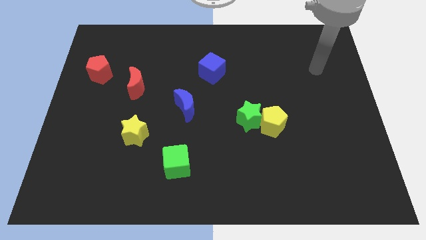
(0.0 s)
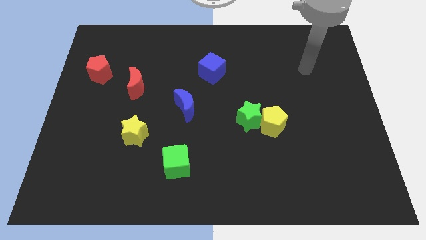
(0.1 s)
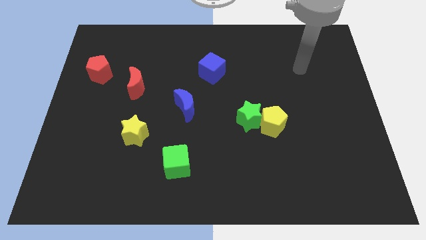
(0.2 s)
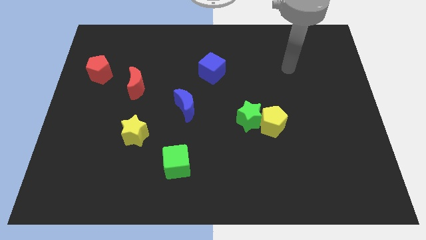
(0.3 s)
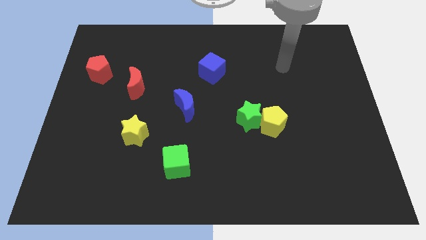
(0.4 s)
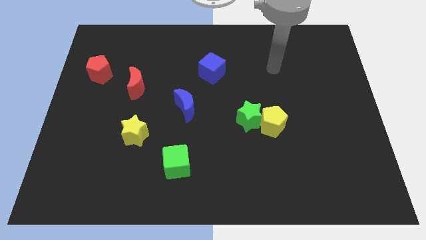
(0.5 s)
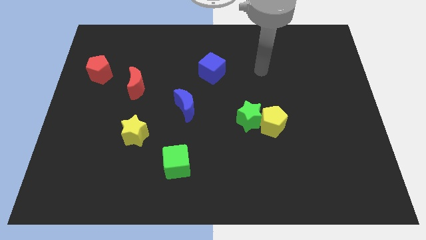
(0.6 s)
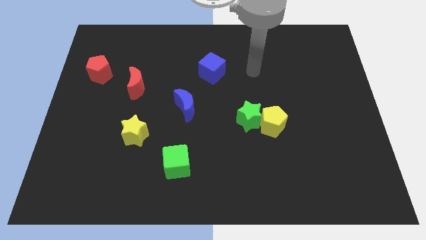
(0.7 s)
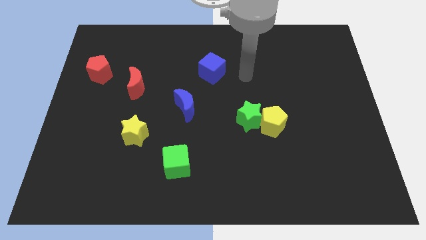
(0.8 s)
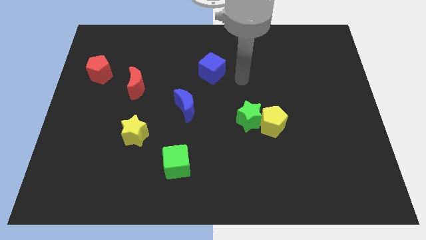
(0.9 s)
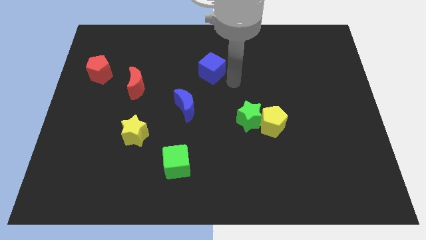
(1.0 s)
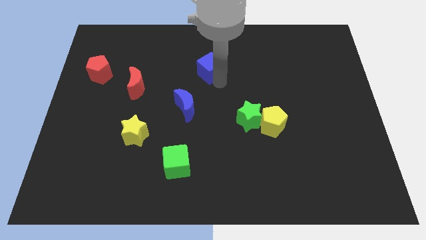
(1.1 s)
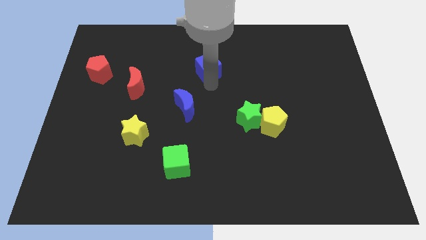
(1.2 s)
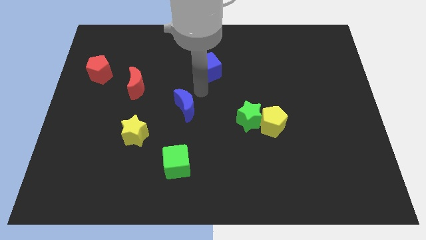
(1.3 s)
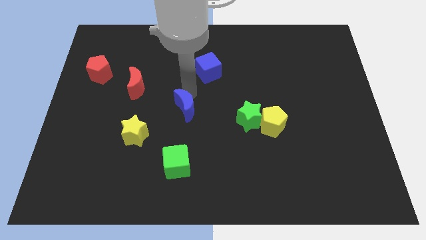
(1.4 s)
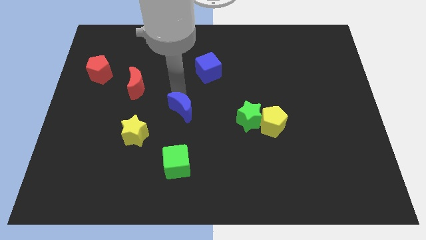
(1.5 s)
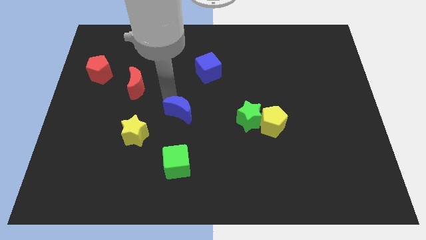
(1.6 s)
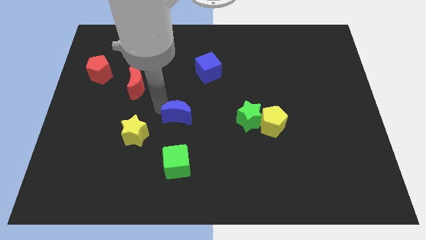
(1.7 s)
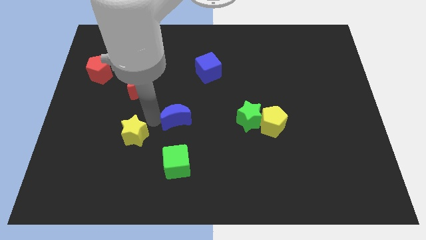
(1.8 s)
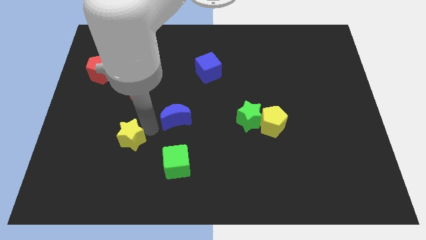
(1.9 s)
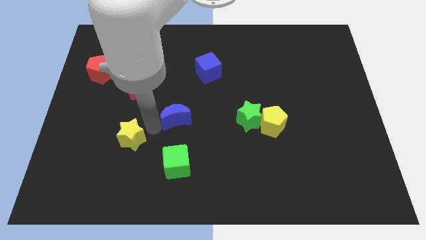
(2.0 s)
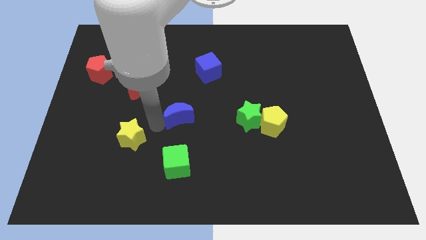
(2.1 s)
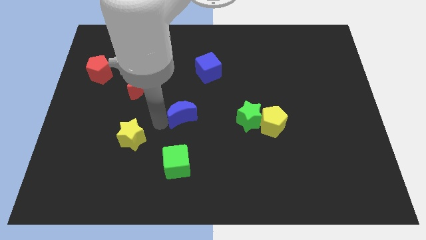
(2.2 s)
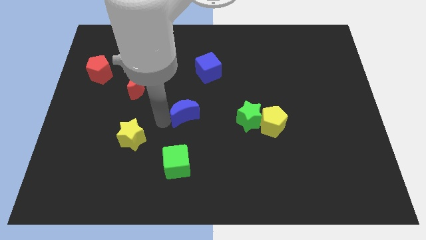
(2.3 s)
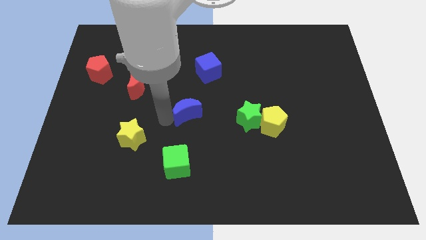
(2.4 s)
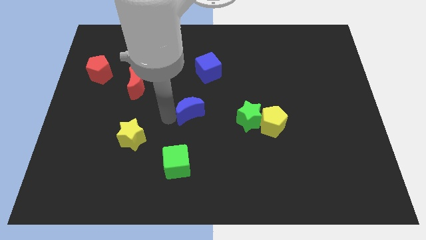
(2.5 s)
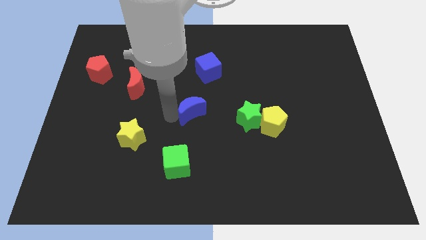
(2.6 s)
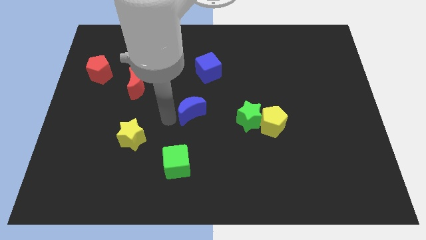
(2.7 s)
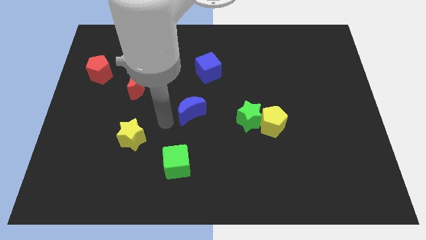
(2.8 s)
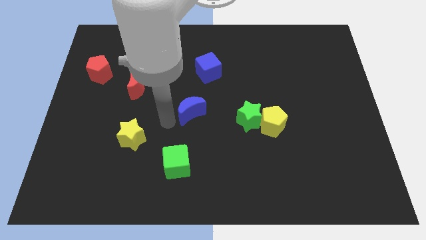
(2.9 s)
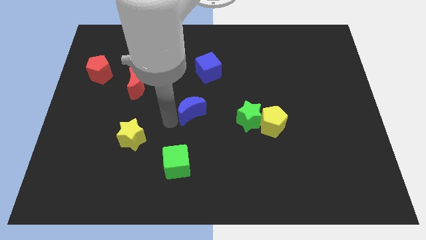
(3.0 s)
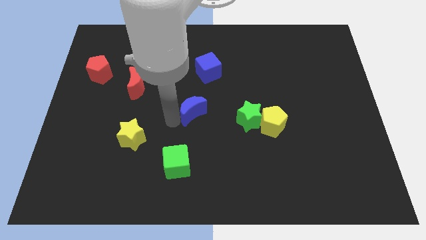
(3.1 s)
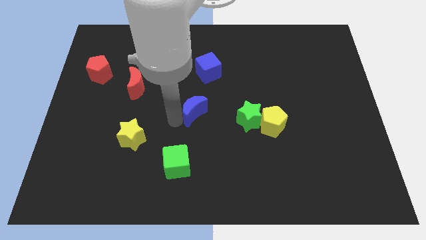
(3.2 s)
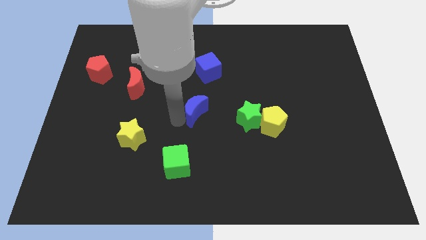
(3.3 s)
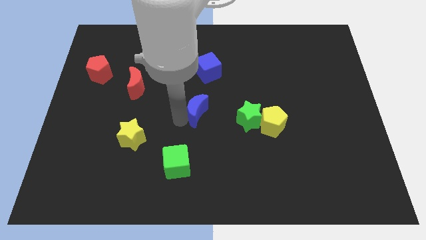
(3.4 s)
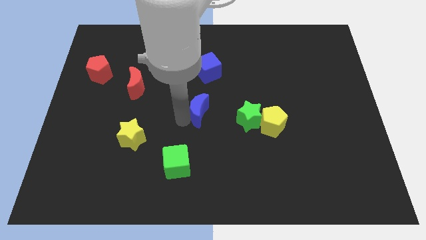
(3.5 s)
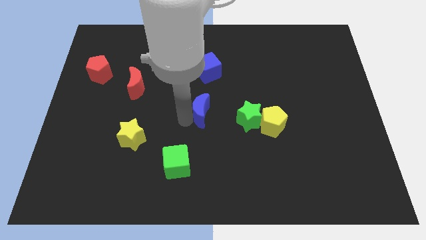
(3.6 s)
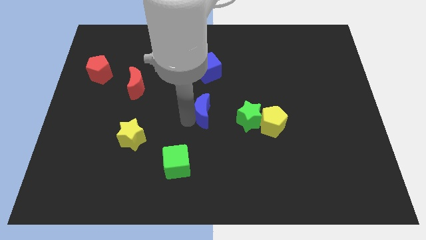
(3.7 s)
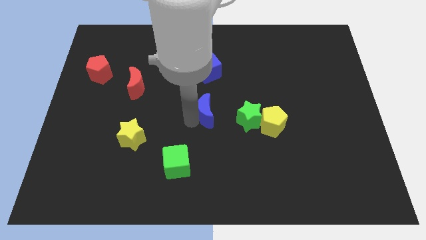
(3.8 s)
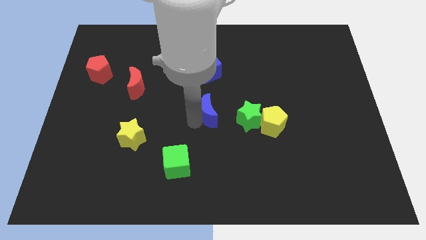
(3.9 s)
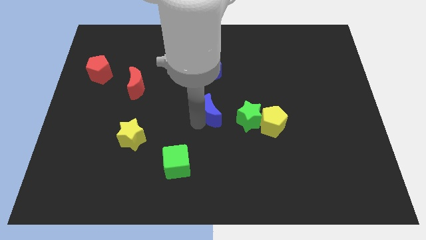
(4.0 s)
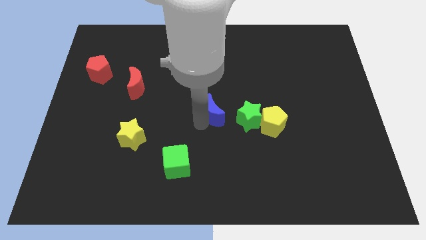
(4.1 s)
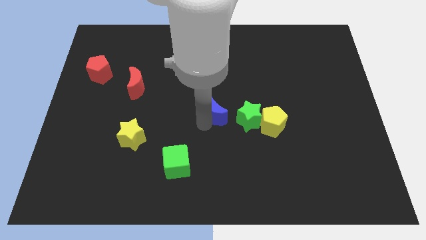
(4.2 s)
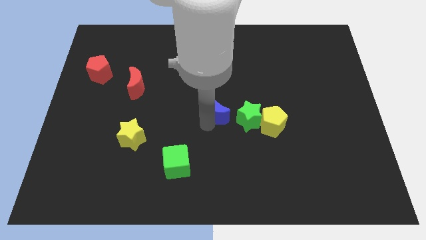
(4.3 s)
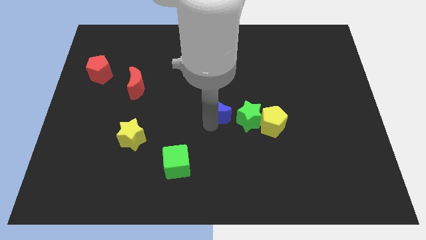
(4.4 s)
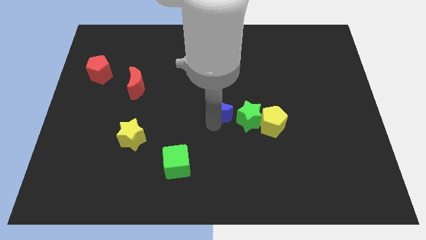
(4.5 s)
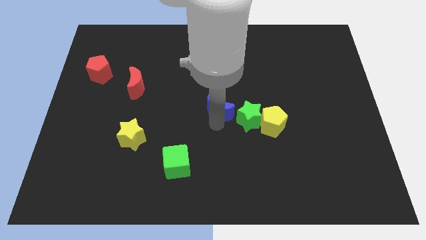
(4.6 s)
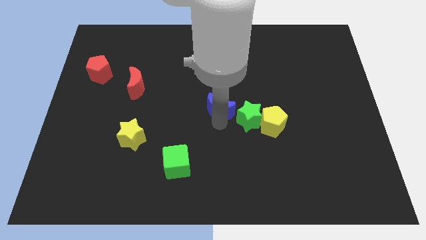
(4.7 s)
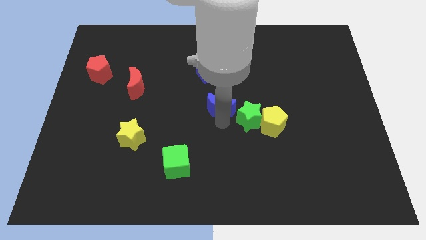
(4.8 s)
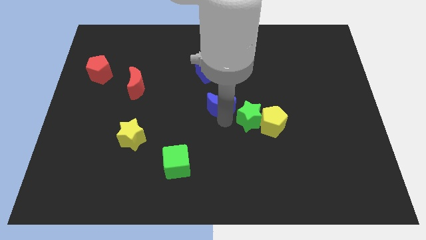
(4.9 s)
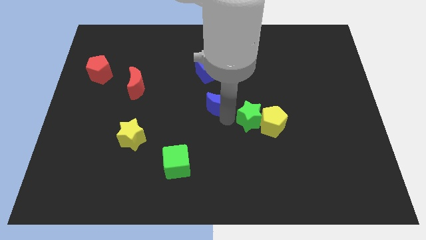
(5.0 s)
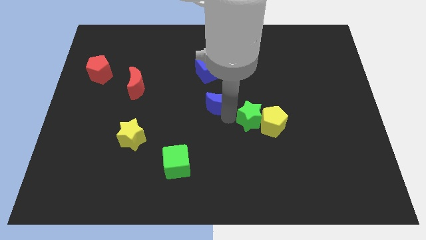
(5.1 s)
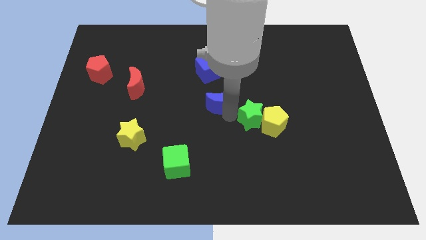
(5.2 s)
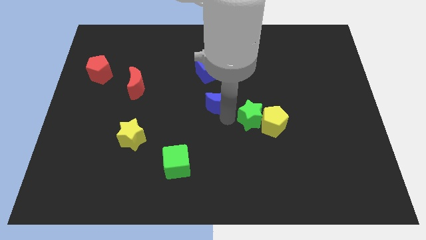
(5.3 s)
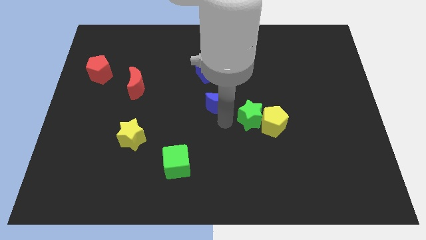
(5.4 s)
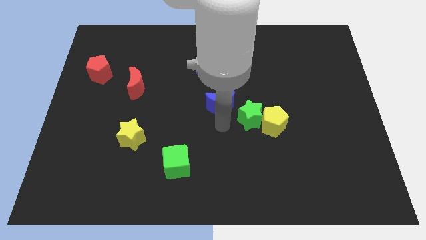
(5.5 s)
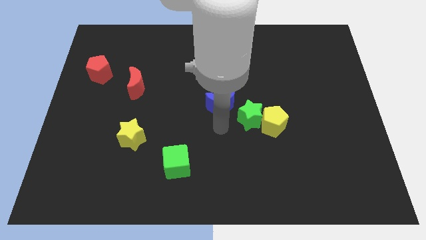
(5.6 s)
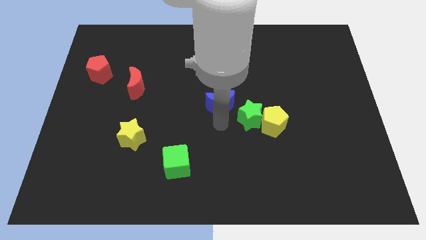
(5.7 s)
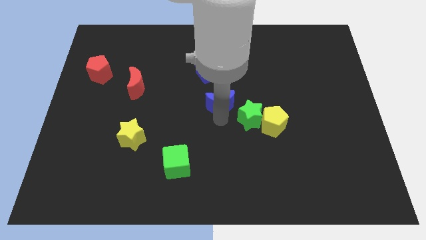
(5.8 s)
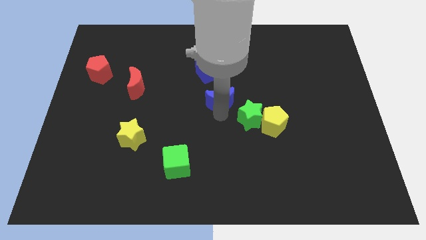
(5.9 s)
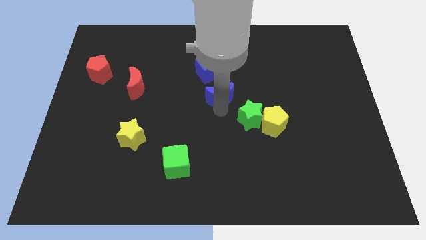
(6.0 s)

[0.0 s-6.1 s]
move the blue moon to the bottom right of the blue cube

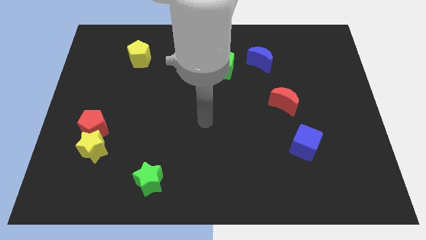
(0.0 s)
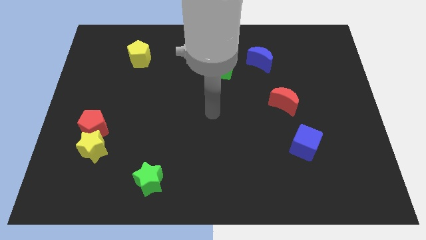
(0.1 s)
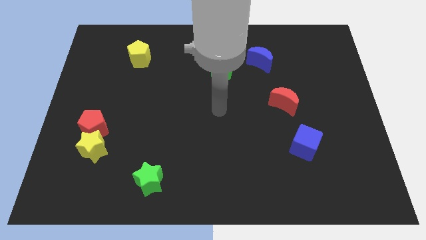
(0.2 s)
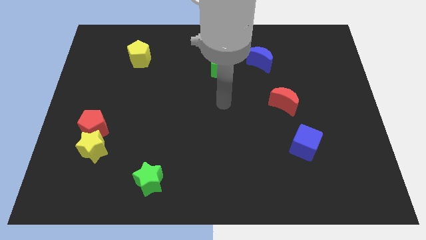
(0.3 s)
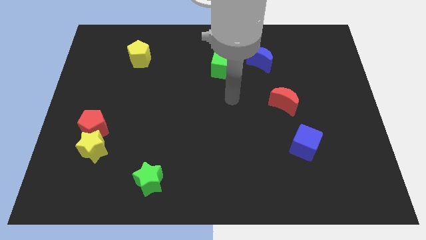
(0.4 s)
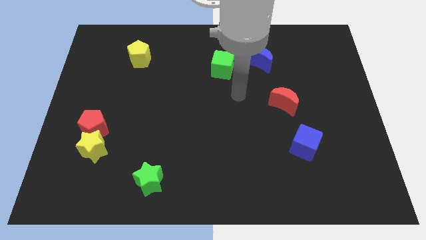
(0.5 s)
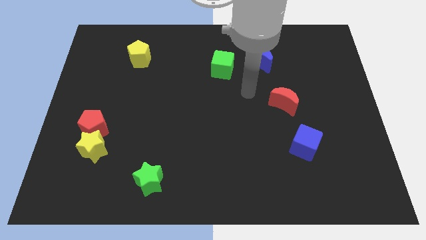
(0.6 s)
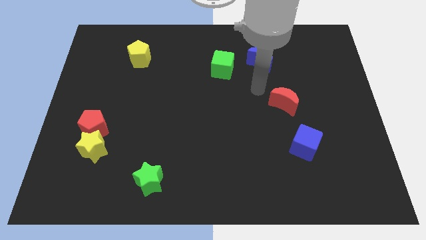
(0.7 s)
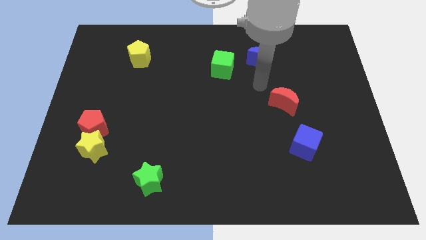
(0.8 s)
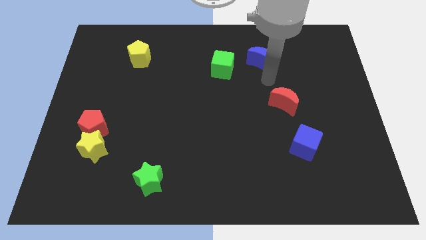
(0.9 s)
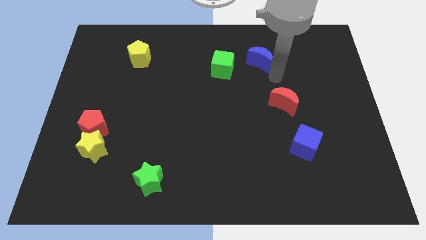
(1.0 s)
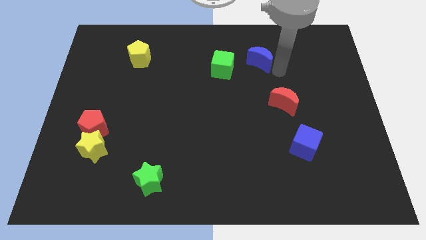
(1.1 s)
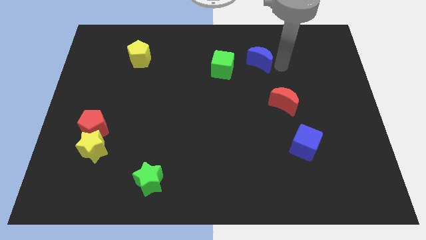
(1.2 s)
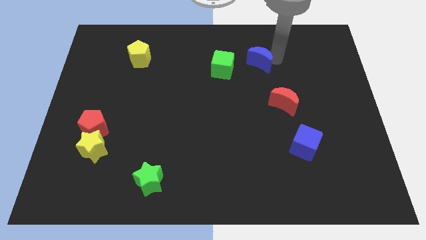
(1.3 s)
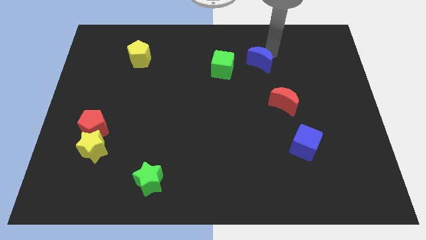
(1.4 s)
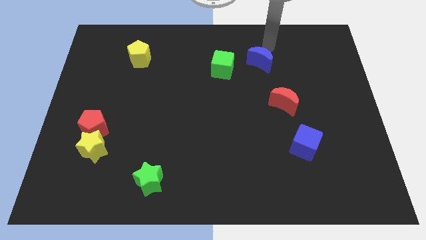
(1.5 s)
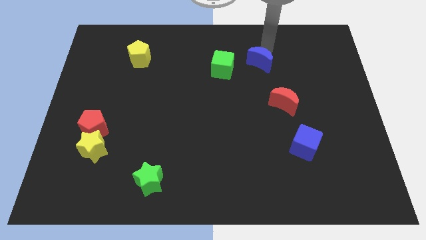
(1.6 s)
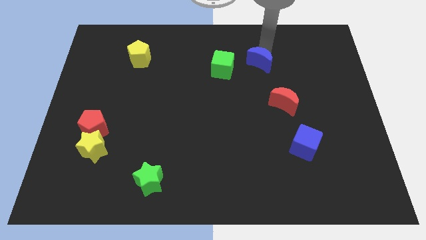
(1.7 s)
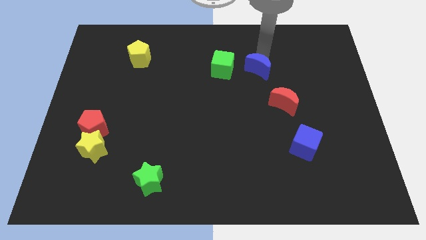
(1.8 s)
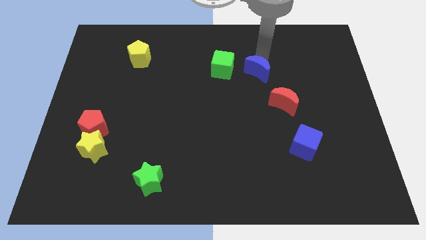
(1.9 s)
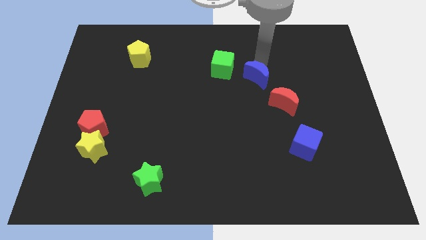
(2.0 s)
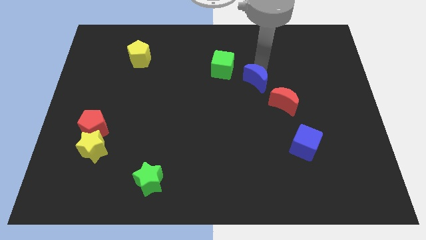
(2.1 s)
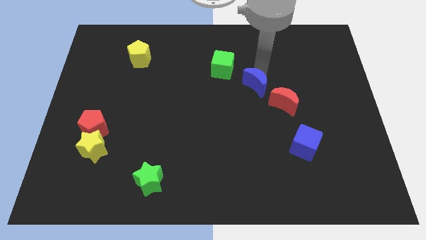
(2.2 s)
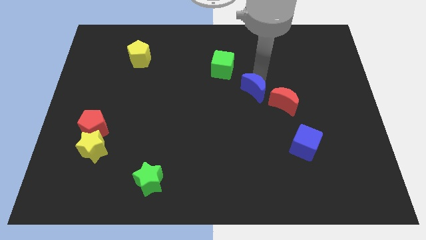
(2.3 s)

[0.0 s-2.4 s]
push the blue moon to the left of the red moon

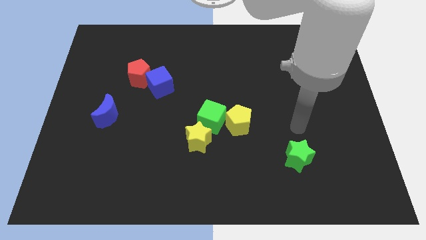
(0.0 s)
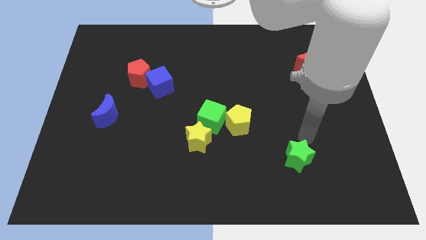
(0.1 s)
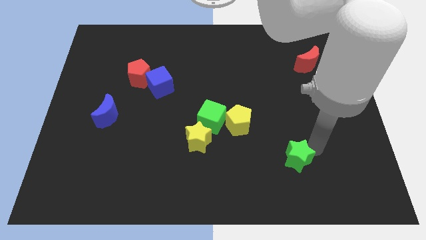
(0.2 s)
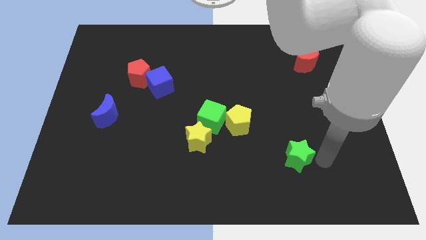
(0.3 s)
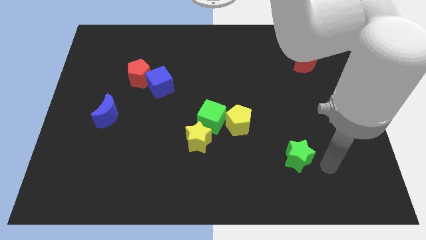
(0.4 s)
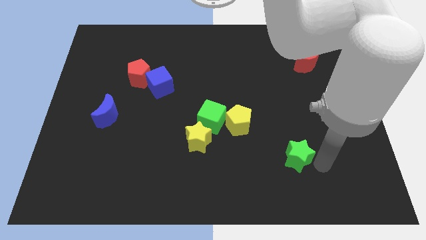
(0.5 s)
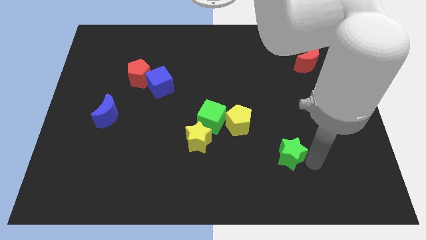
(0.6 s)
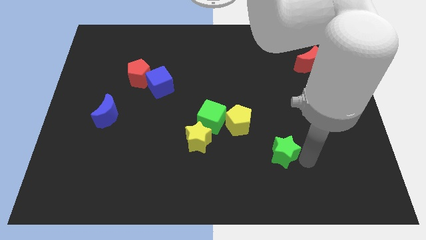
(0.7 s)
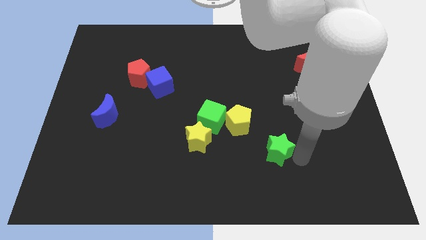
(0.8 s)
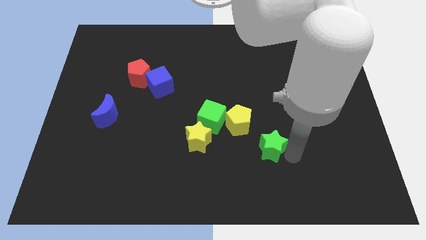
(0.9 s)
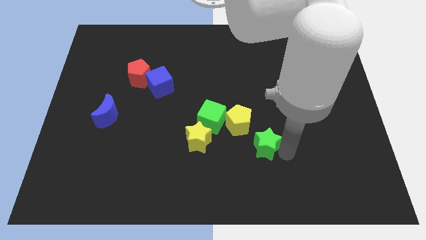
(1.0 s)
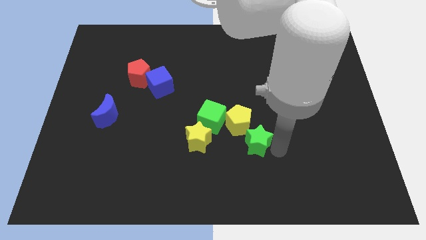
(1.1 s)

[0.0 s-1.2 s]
push the green star diagonally down and to the right of the green cube
